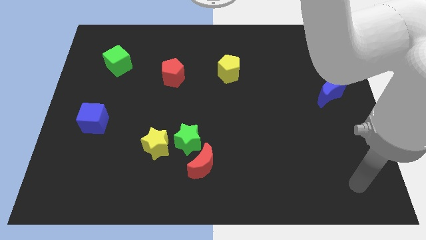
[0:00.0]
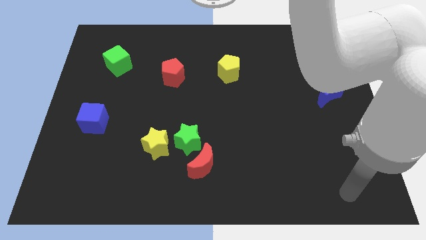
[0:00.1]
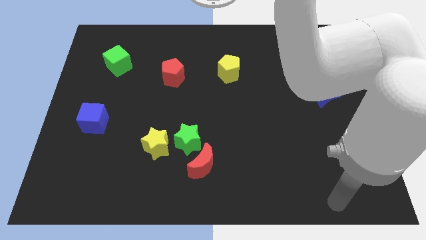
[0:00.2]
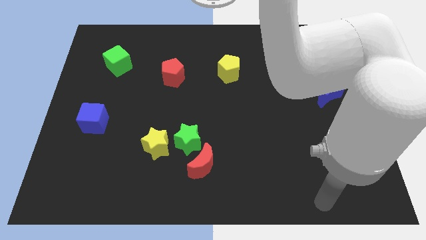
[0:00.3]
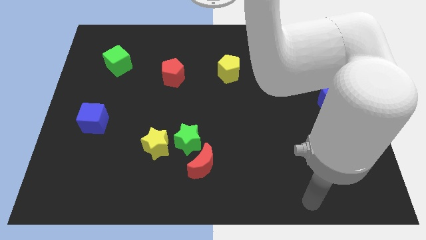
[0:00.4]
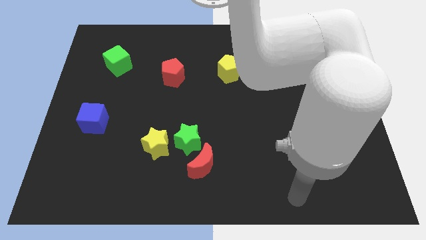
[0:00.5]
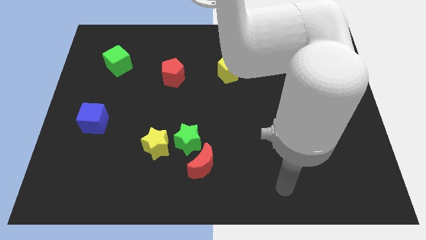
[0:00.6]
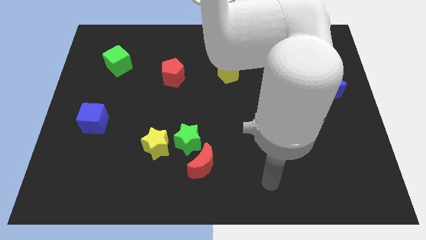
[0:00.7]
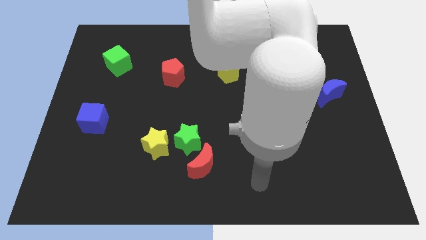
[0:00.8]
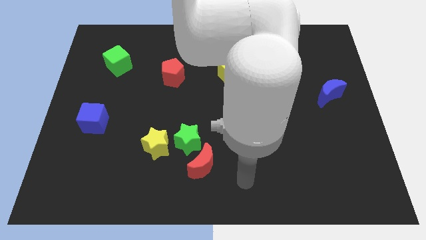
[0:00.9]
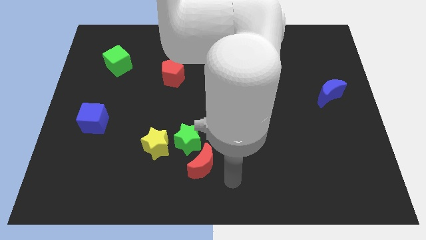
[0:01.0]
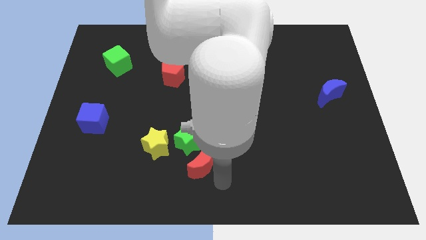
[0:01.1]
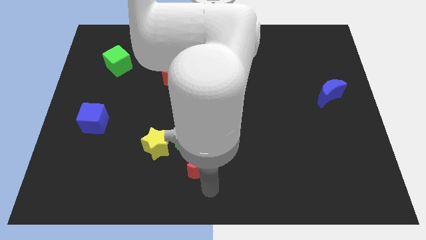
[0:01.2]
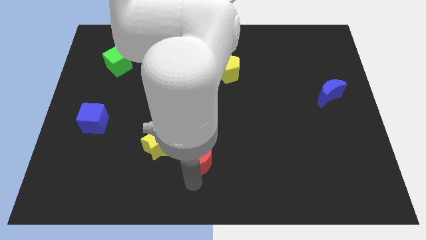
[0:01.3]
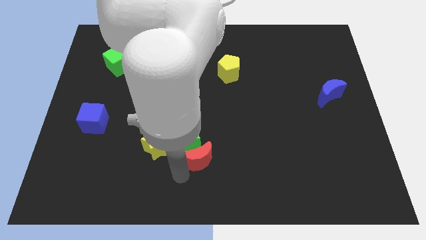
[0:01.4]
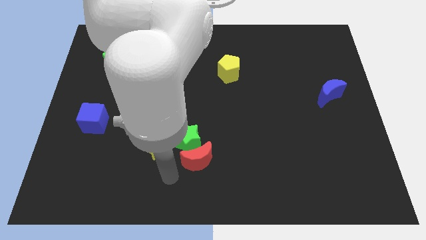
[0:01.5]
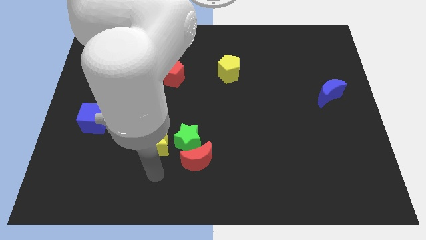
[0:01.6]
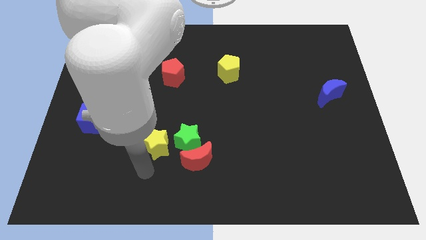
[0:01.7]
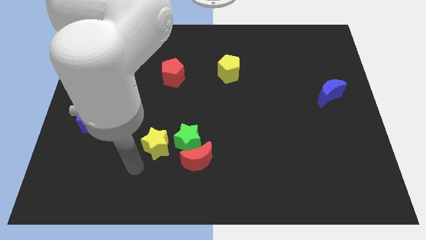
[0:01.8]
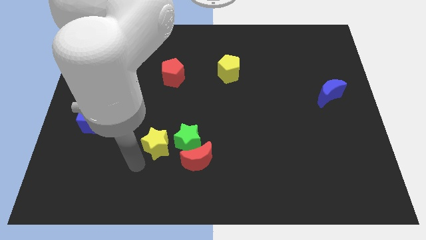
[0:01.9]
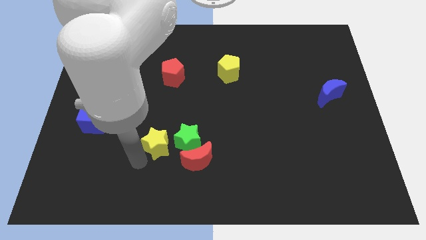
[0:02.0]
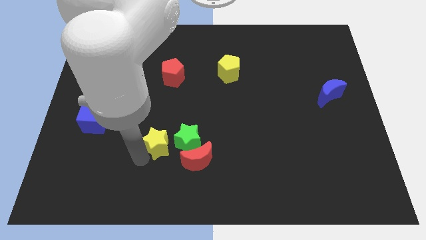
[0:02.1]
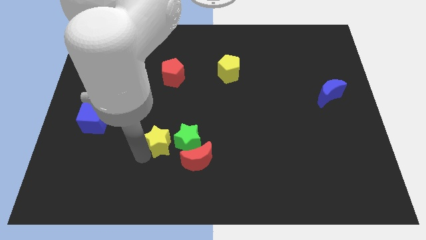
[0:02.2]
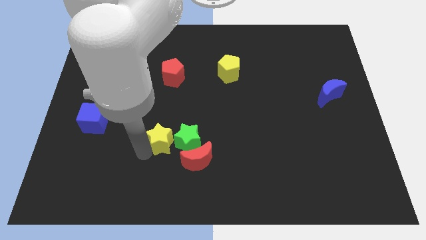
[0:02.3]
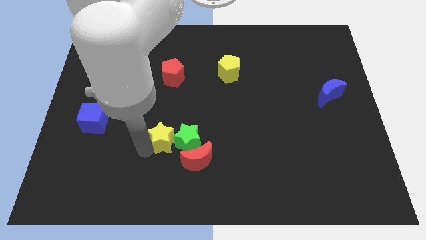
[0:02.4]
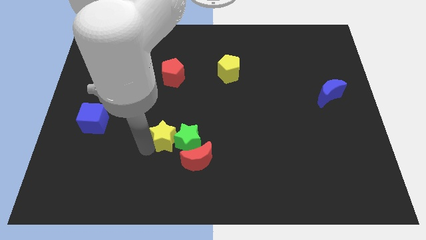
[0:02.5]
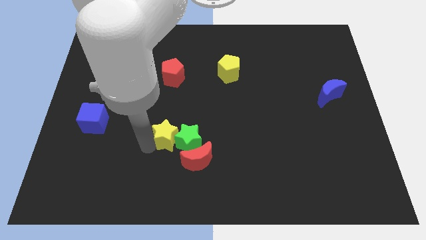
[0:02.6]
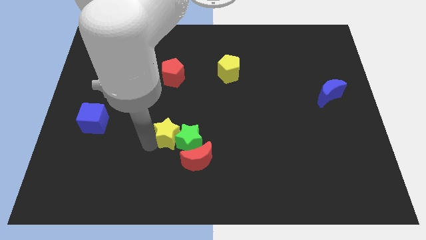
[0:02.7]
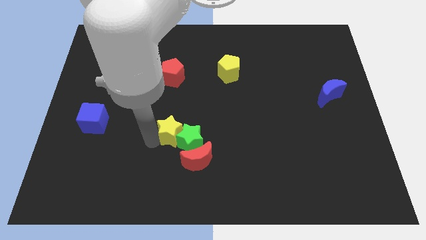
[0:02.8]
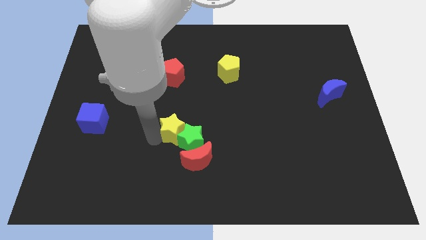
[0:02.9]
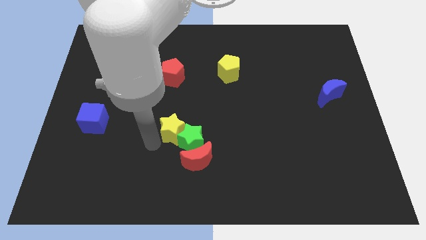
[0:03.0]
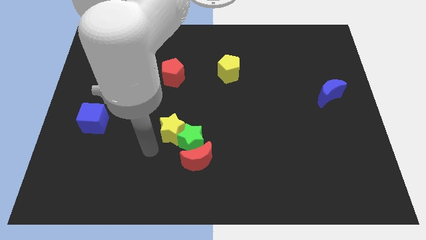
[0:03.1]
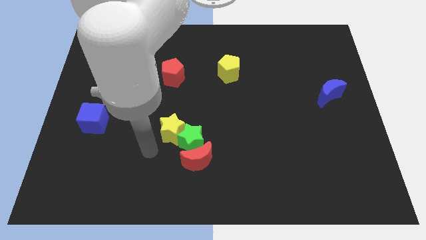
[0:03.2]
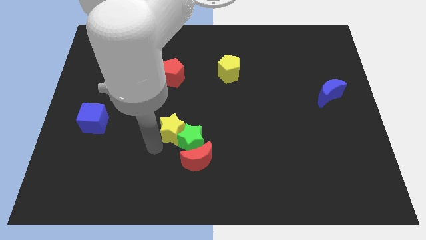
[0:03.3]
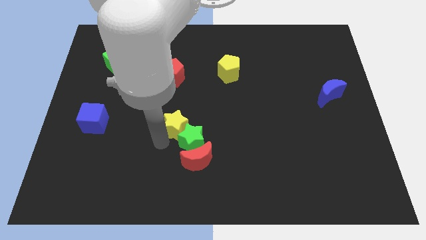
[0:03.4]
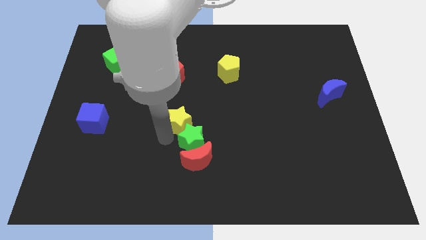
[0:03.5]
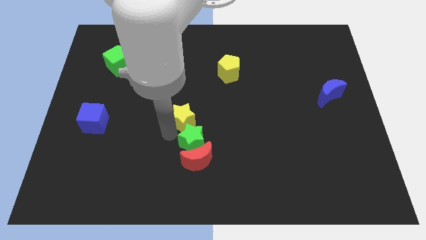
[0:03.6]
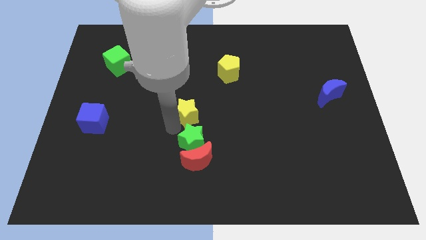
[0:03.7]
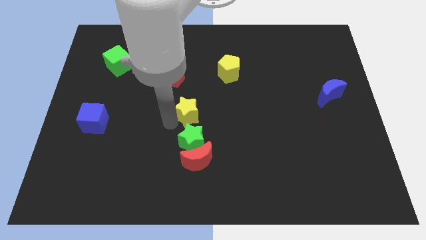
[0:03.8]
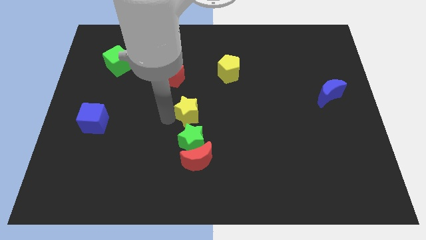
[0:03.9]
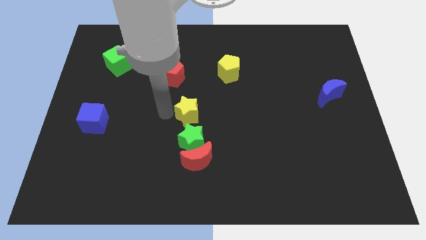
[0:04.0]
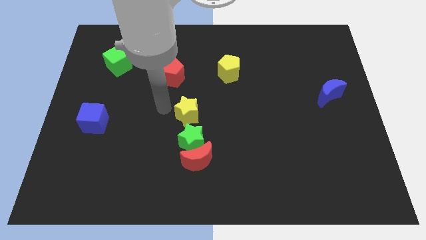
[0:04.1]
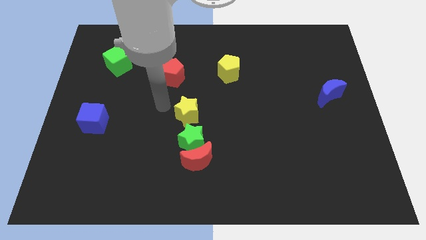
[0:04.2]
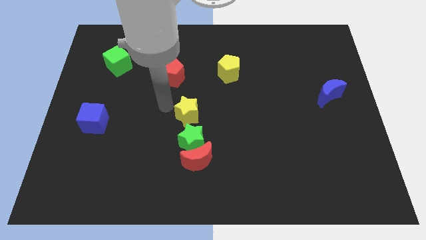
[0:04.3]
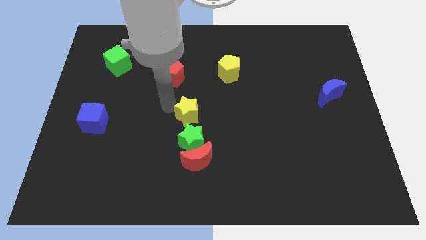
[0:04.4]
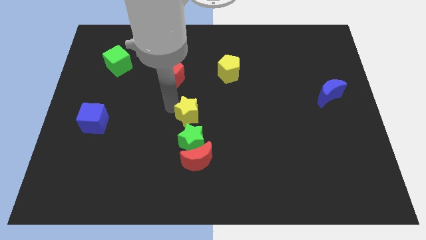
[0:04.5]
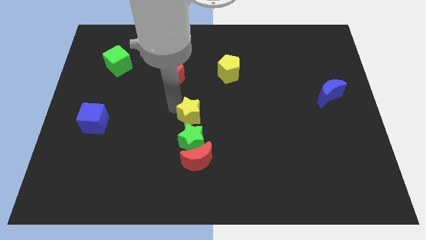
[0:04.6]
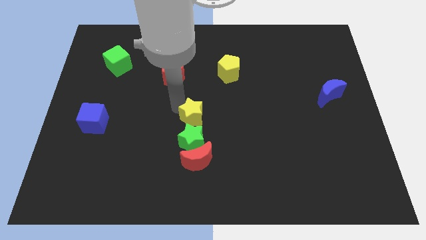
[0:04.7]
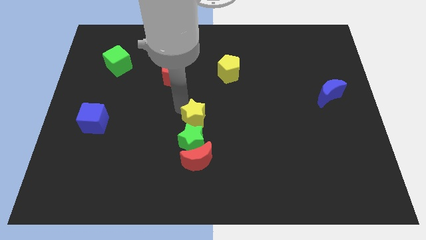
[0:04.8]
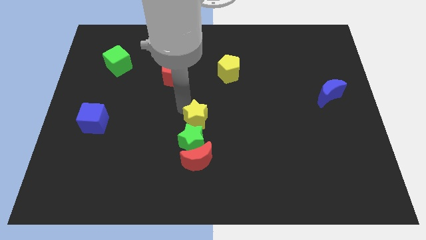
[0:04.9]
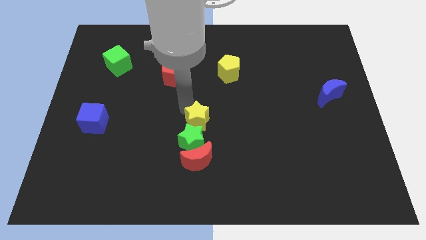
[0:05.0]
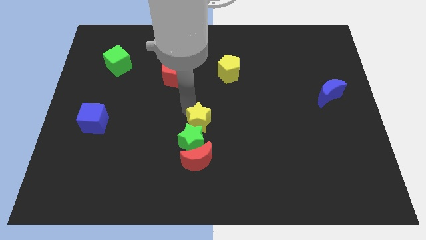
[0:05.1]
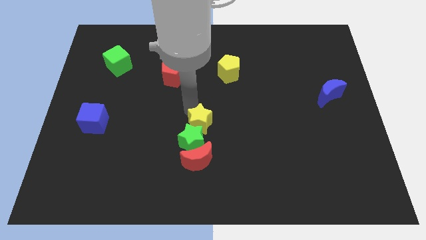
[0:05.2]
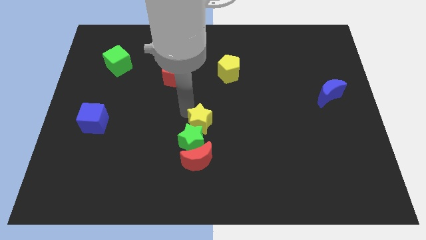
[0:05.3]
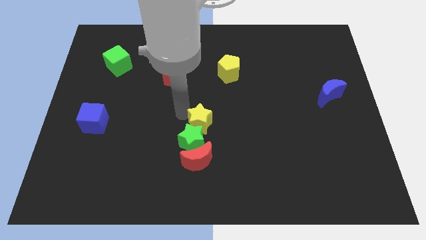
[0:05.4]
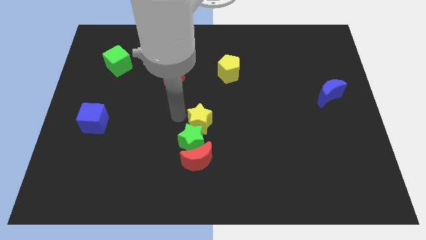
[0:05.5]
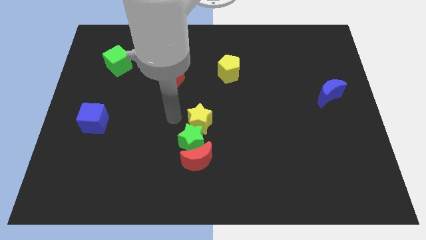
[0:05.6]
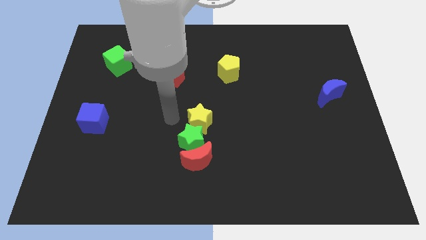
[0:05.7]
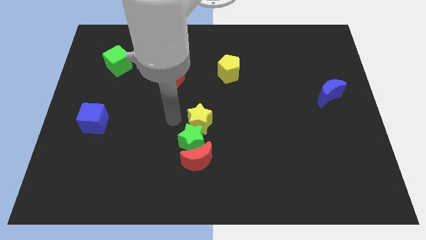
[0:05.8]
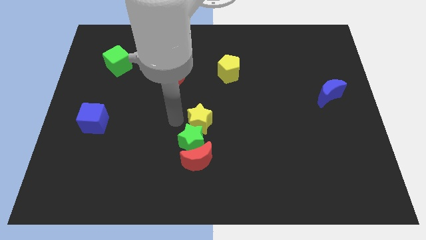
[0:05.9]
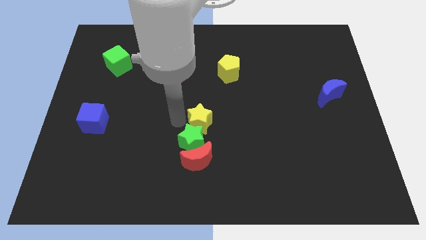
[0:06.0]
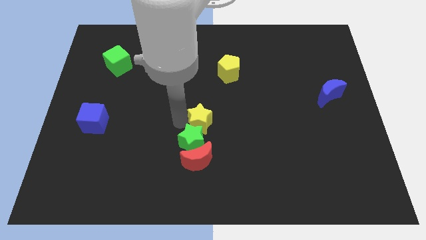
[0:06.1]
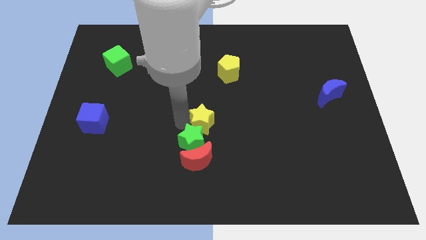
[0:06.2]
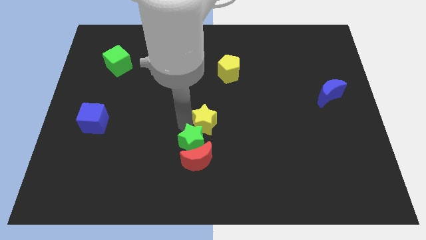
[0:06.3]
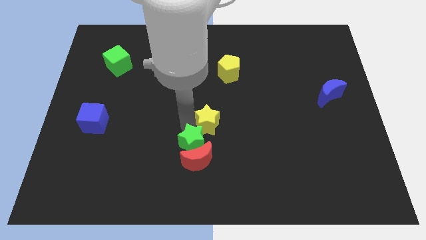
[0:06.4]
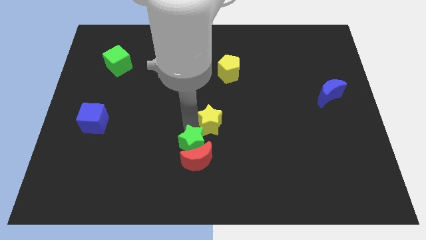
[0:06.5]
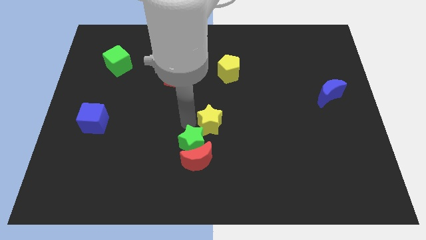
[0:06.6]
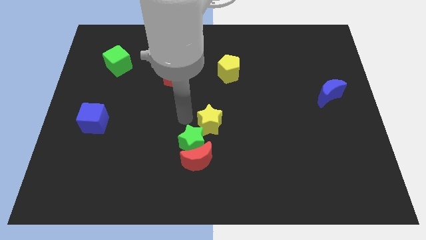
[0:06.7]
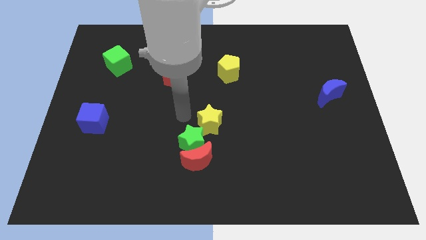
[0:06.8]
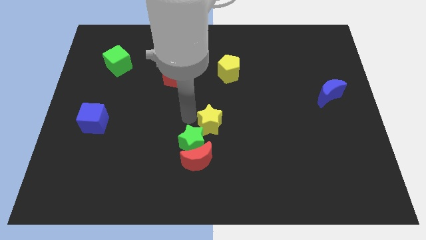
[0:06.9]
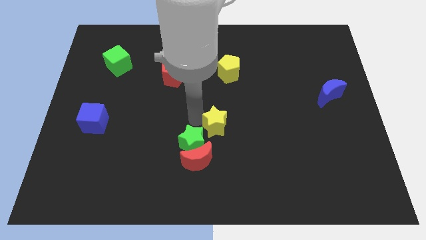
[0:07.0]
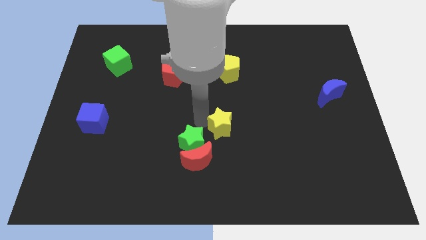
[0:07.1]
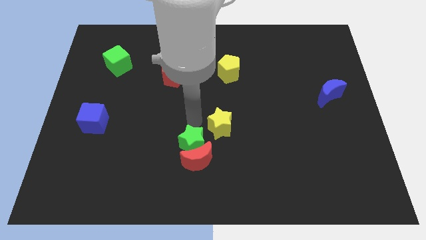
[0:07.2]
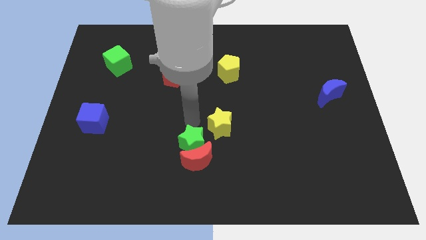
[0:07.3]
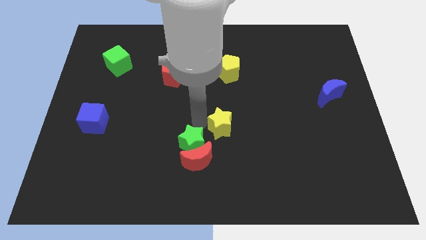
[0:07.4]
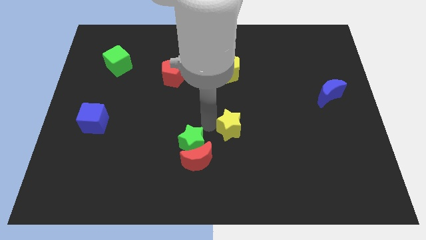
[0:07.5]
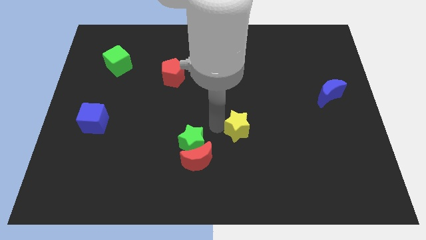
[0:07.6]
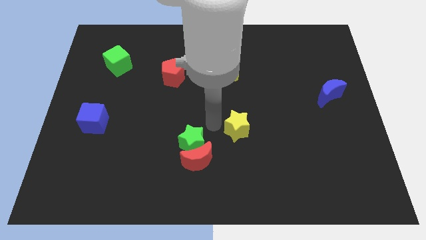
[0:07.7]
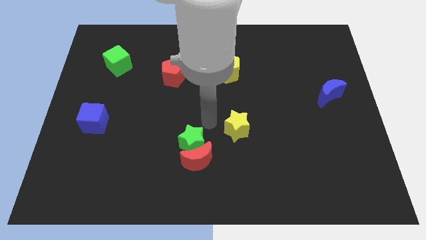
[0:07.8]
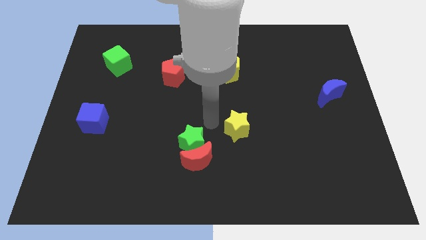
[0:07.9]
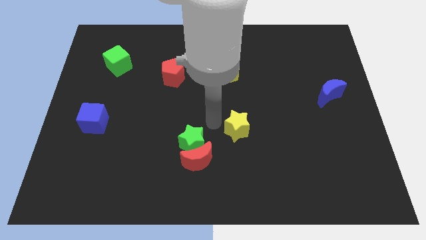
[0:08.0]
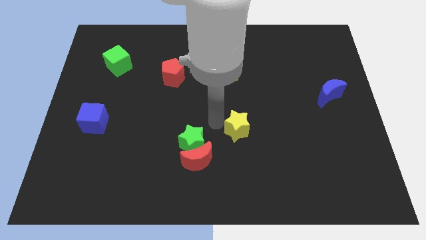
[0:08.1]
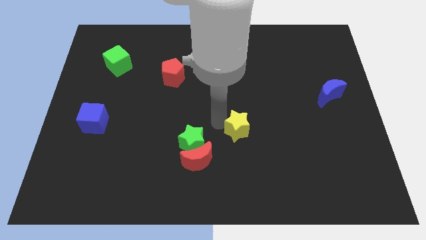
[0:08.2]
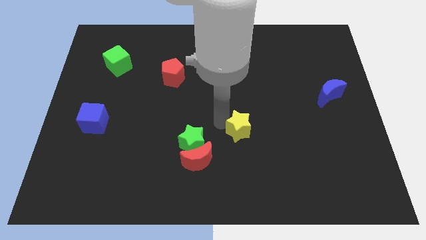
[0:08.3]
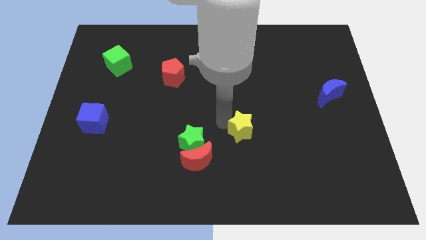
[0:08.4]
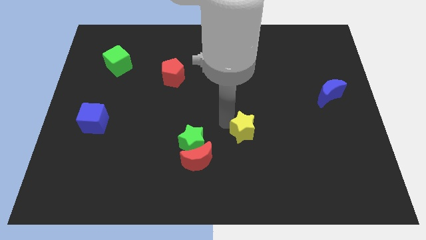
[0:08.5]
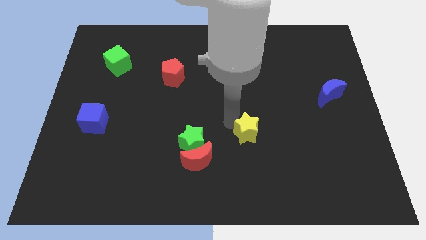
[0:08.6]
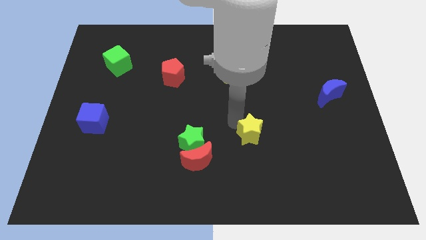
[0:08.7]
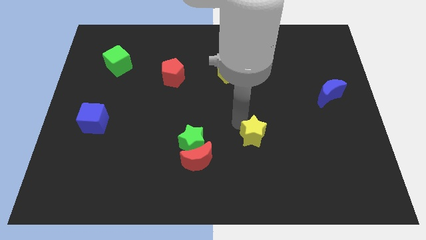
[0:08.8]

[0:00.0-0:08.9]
move the yellow star to the right

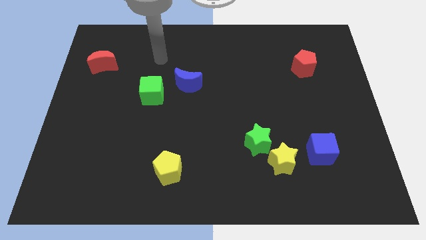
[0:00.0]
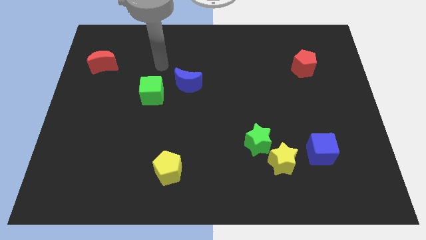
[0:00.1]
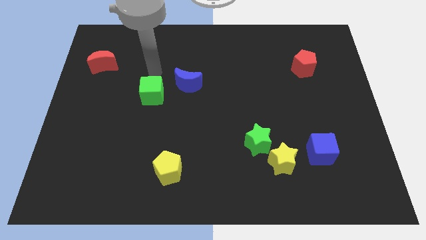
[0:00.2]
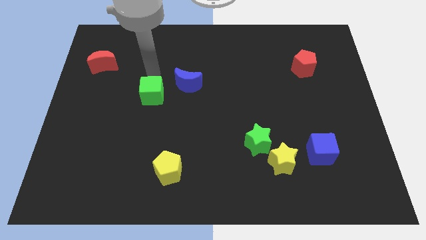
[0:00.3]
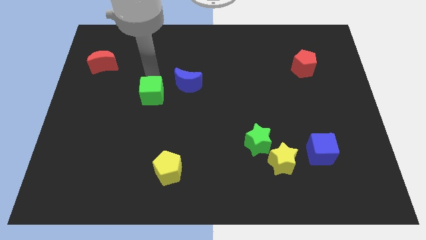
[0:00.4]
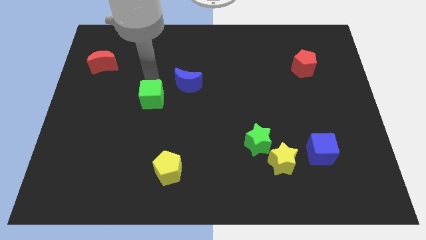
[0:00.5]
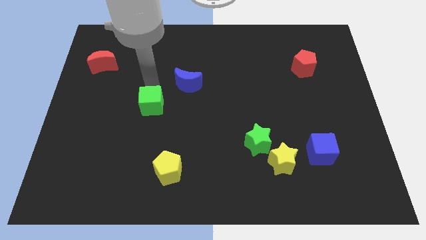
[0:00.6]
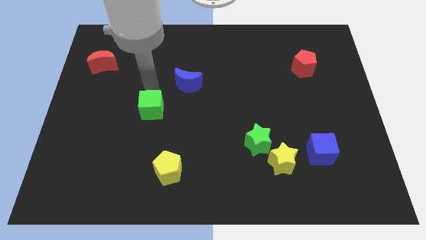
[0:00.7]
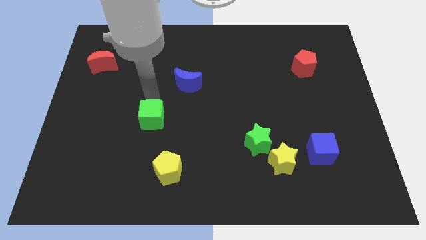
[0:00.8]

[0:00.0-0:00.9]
move the green cube somewhat downwards
